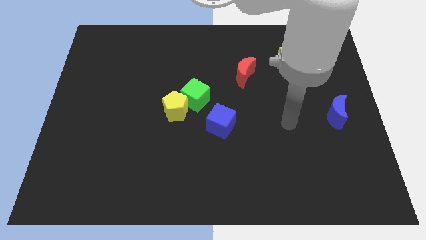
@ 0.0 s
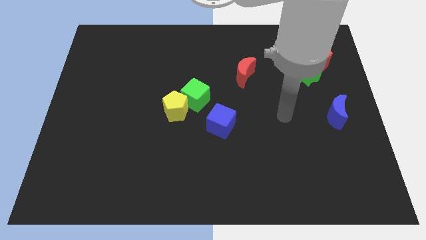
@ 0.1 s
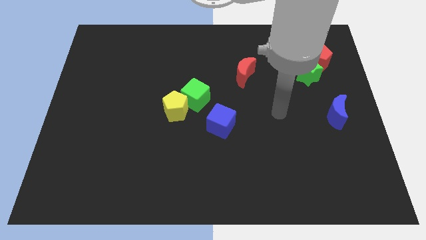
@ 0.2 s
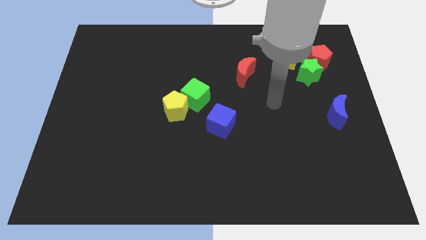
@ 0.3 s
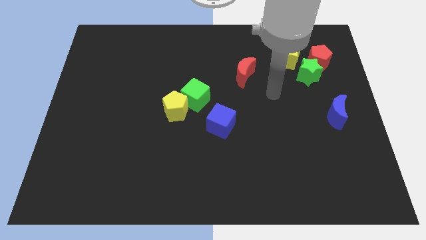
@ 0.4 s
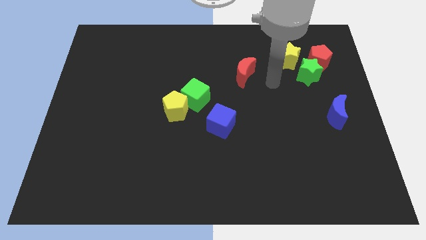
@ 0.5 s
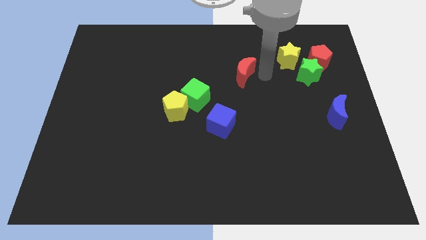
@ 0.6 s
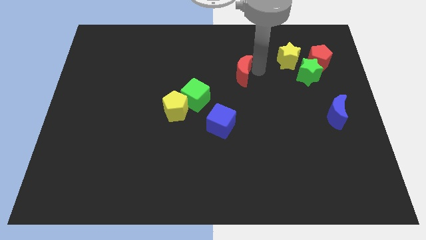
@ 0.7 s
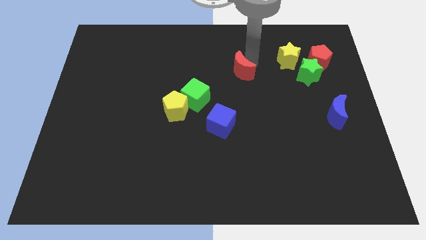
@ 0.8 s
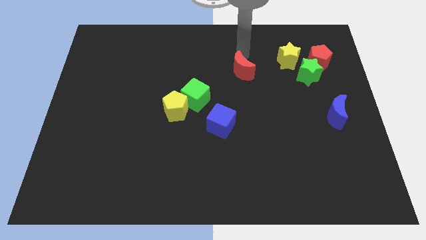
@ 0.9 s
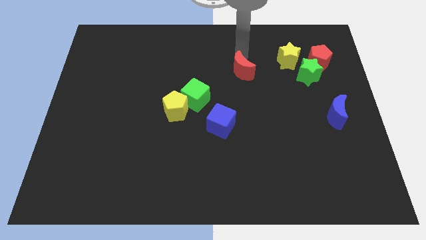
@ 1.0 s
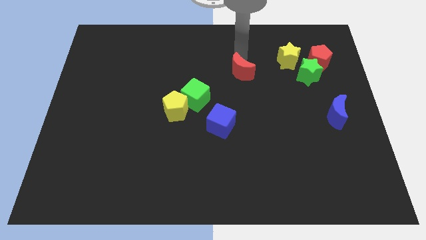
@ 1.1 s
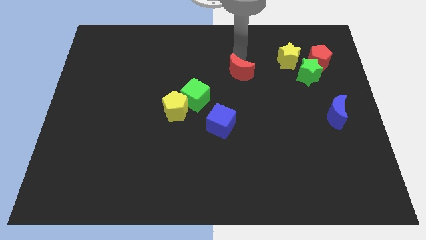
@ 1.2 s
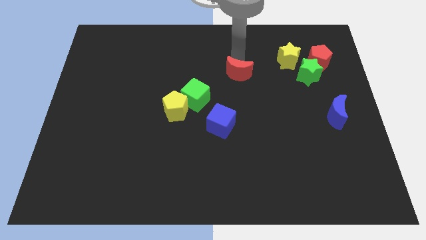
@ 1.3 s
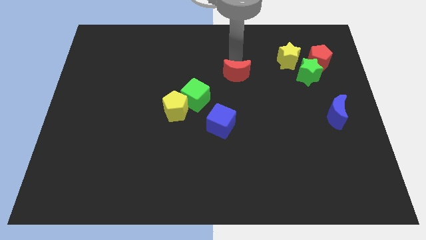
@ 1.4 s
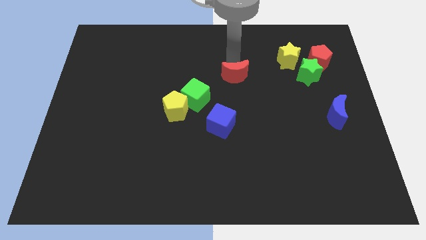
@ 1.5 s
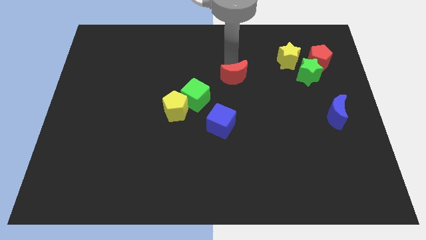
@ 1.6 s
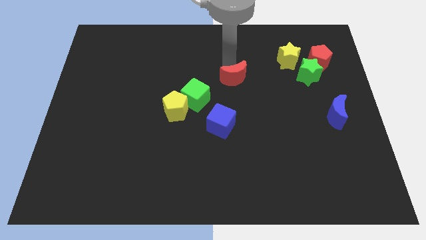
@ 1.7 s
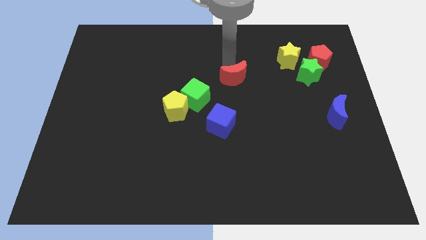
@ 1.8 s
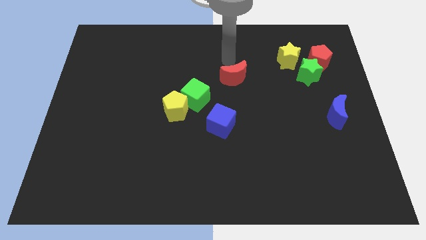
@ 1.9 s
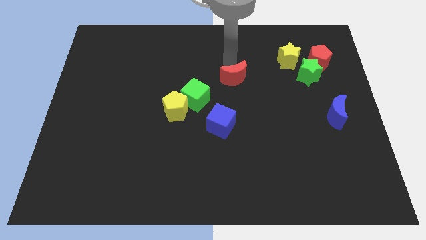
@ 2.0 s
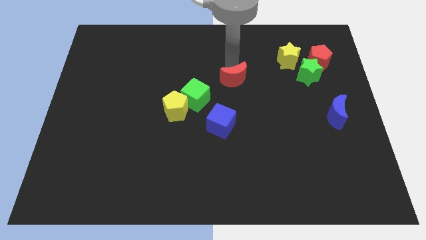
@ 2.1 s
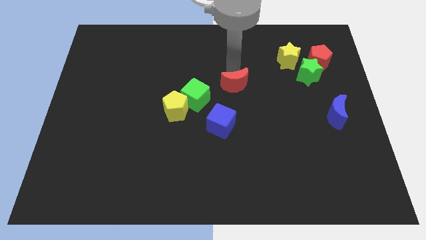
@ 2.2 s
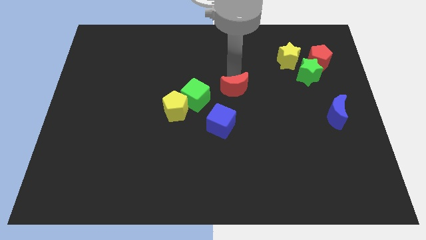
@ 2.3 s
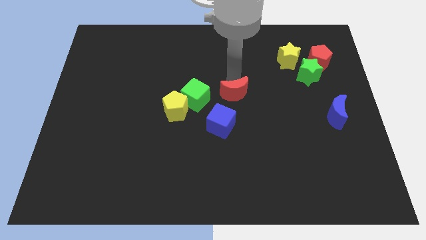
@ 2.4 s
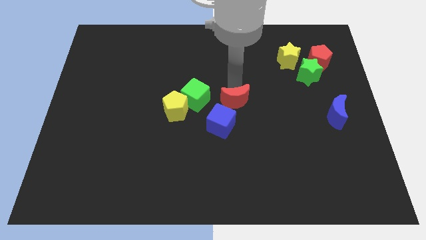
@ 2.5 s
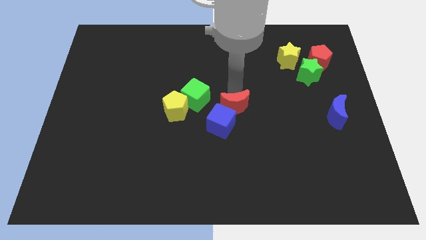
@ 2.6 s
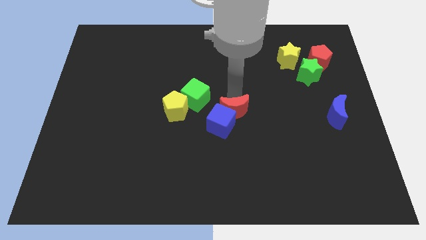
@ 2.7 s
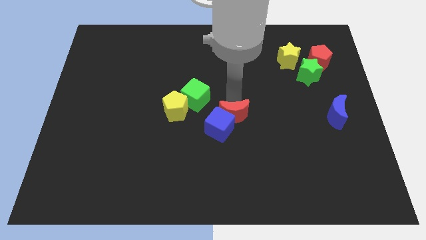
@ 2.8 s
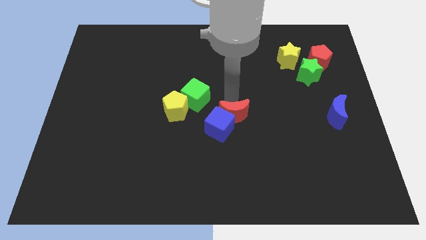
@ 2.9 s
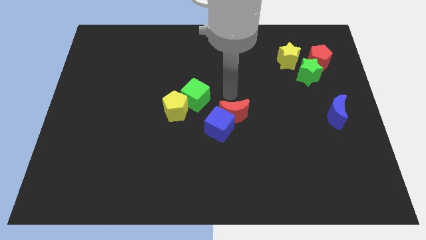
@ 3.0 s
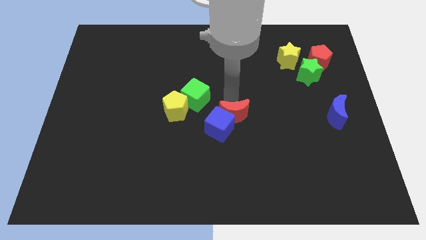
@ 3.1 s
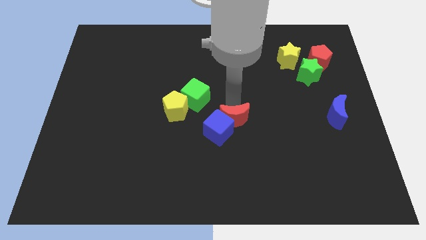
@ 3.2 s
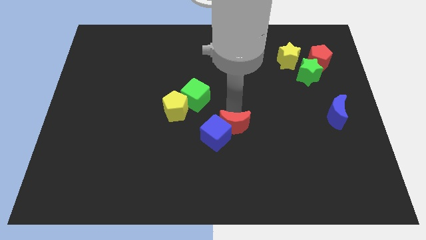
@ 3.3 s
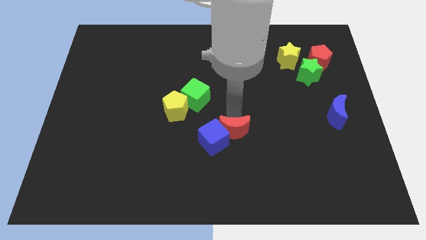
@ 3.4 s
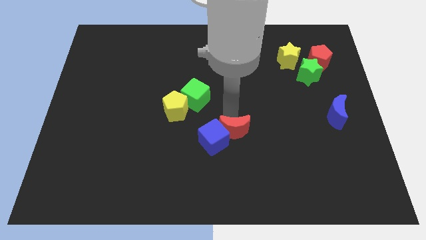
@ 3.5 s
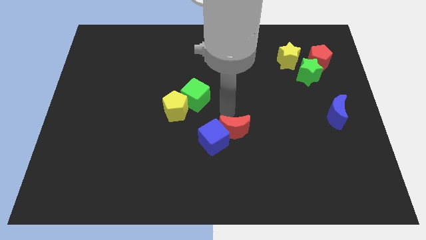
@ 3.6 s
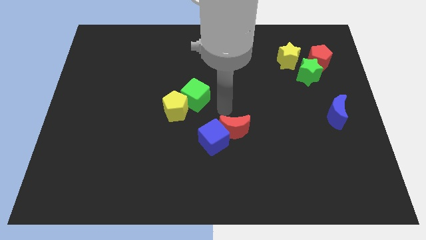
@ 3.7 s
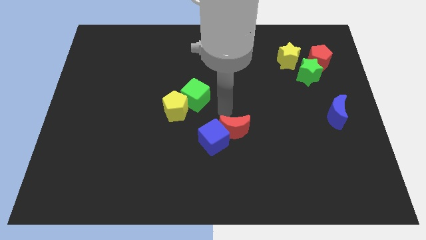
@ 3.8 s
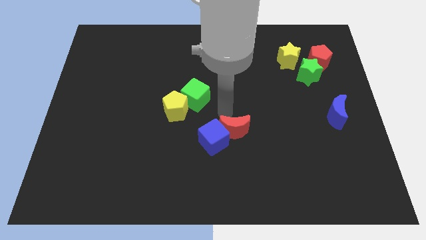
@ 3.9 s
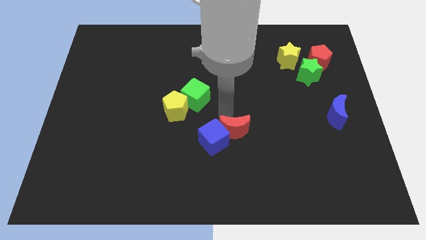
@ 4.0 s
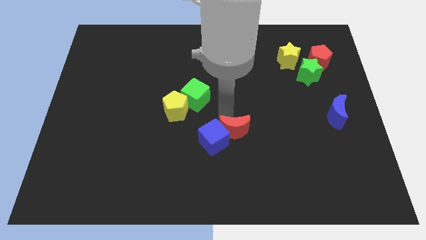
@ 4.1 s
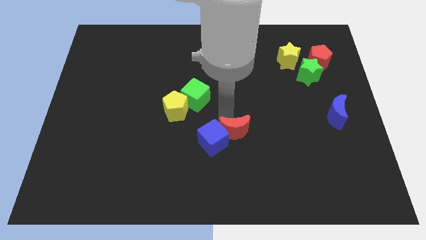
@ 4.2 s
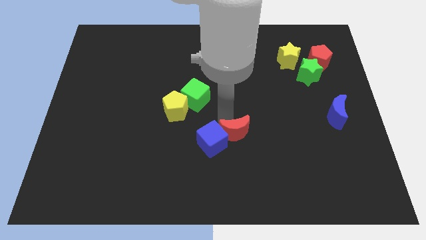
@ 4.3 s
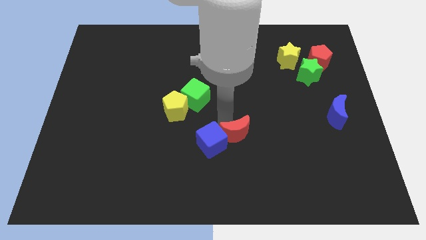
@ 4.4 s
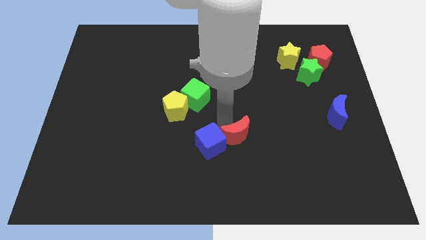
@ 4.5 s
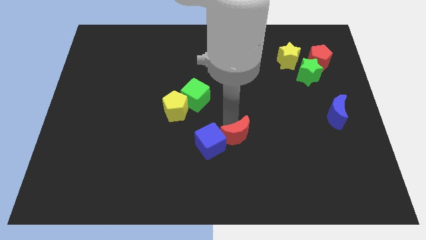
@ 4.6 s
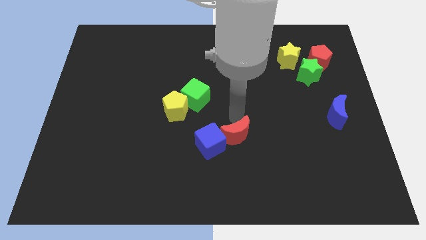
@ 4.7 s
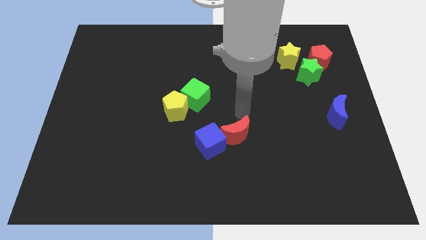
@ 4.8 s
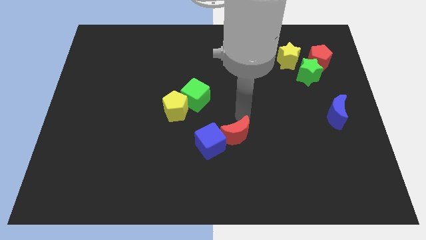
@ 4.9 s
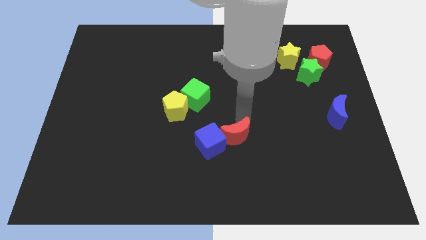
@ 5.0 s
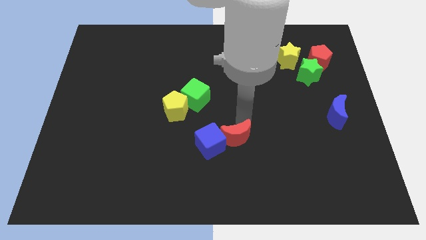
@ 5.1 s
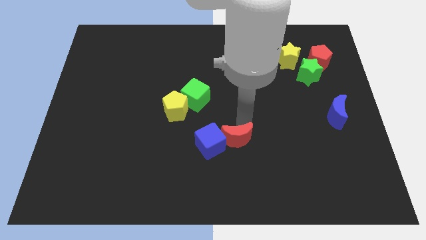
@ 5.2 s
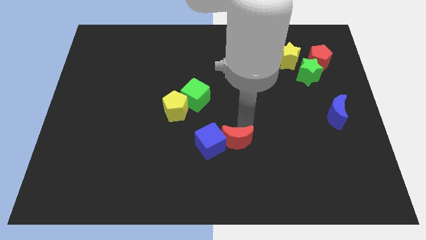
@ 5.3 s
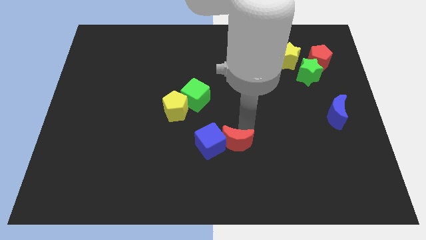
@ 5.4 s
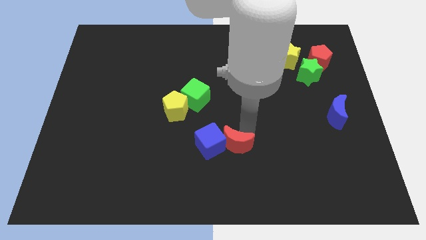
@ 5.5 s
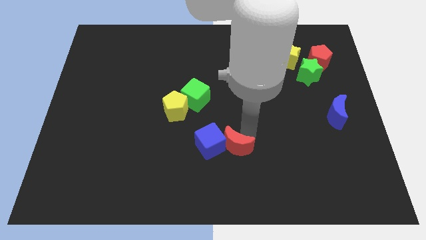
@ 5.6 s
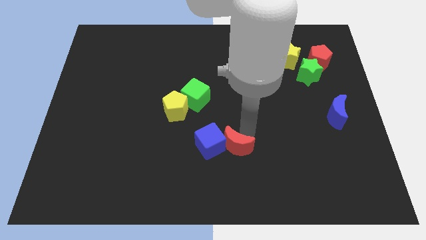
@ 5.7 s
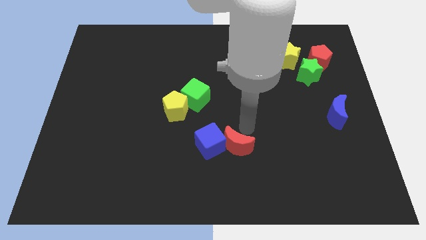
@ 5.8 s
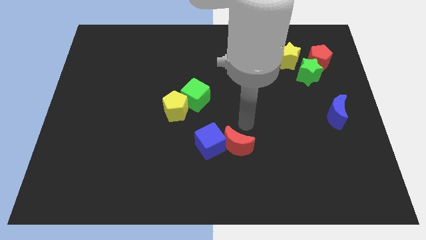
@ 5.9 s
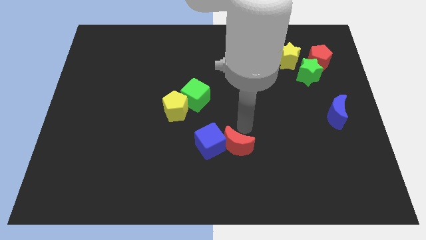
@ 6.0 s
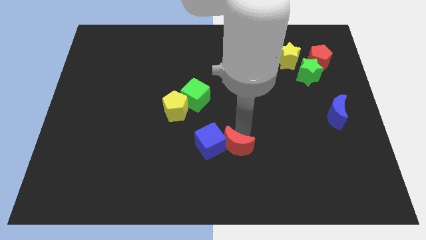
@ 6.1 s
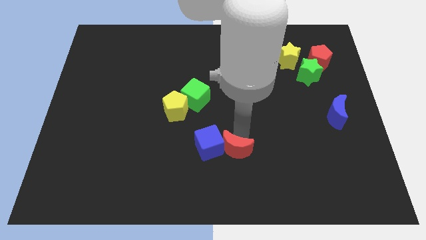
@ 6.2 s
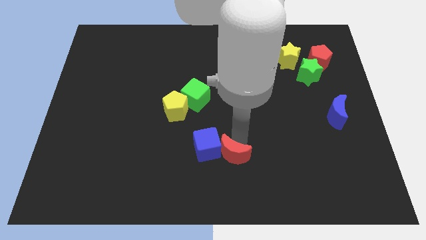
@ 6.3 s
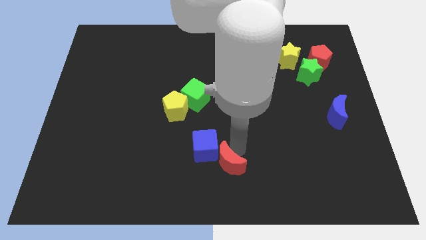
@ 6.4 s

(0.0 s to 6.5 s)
move the red moon to the bottom

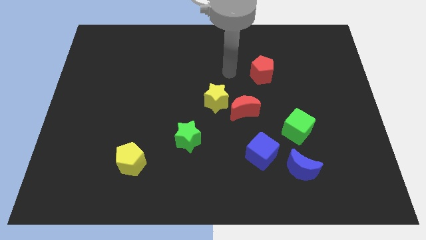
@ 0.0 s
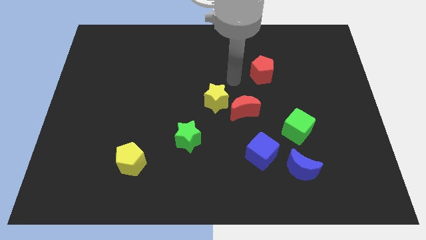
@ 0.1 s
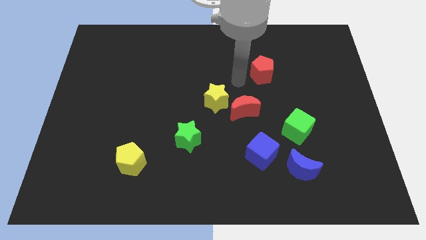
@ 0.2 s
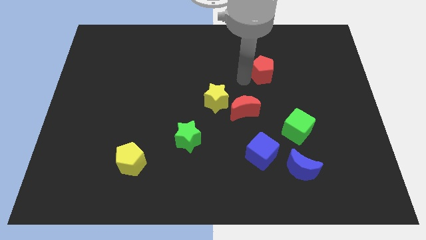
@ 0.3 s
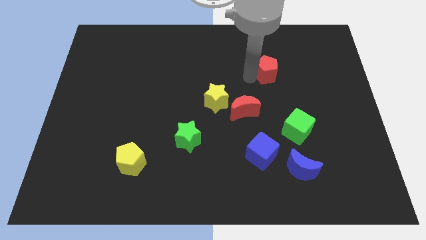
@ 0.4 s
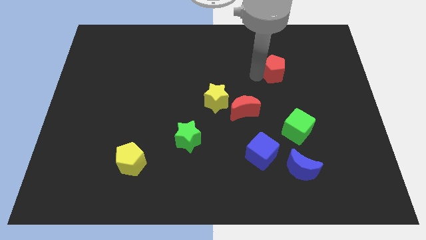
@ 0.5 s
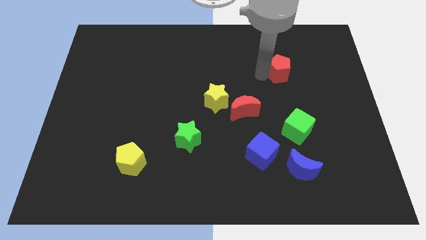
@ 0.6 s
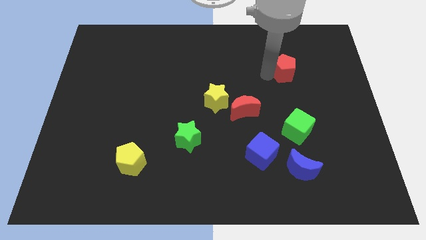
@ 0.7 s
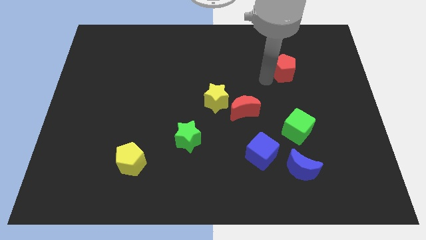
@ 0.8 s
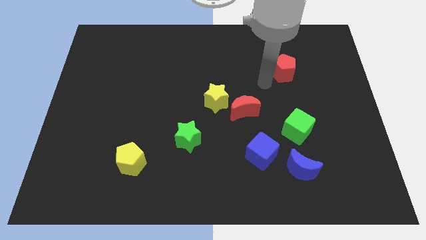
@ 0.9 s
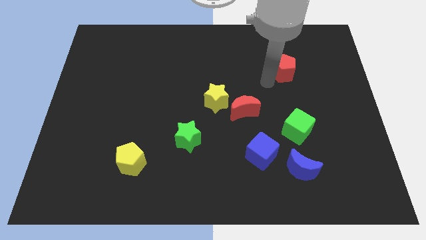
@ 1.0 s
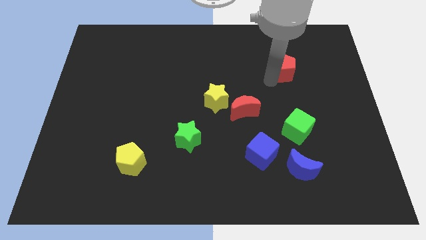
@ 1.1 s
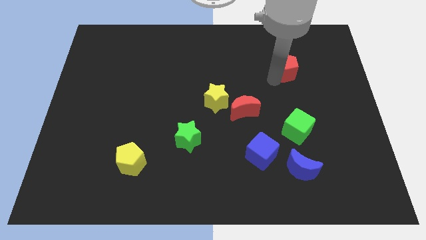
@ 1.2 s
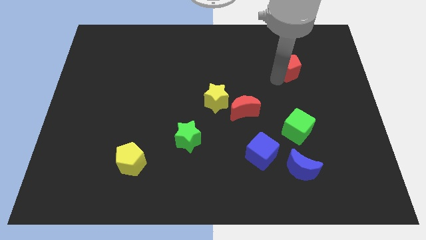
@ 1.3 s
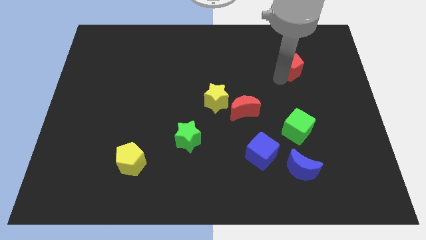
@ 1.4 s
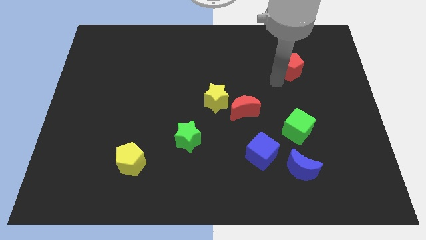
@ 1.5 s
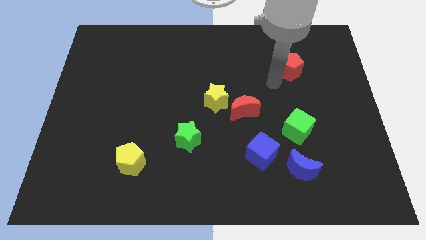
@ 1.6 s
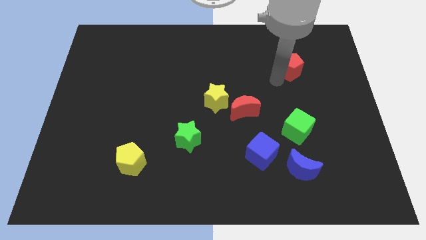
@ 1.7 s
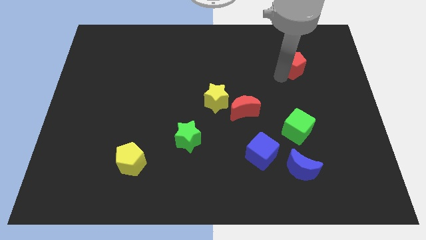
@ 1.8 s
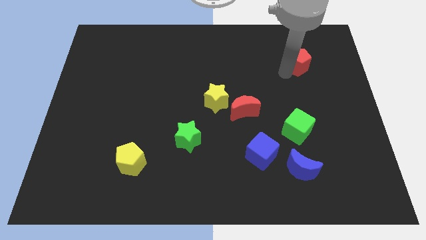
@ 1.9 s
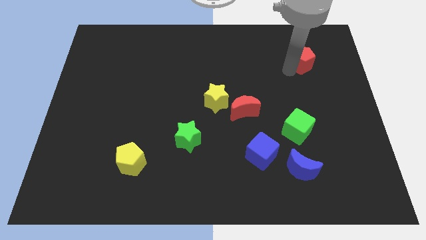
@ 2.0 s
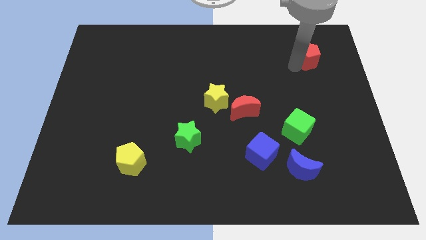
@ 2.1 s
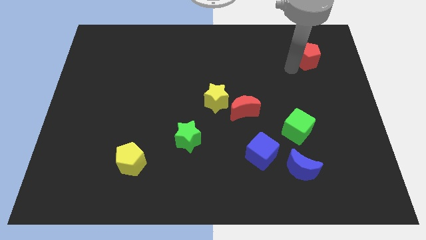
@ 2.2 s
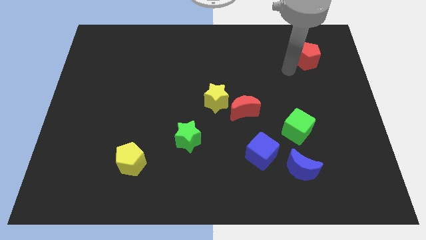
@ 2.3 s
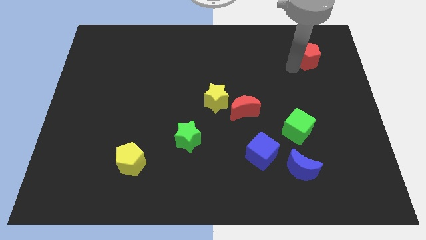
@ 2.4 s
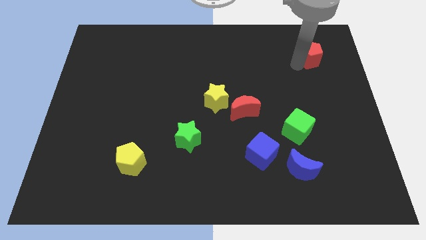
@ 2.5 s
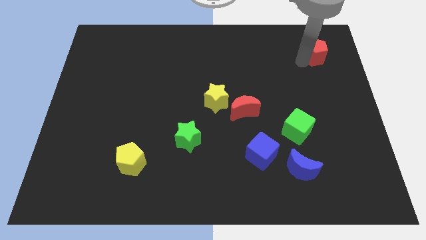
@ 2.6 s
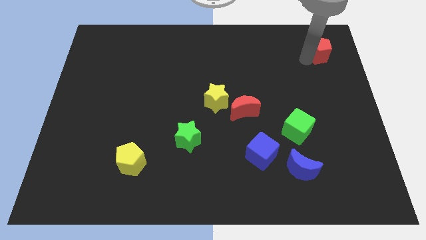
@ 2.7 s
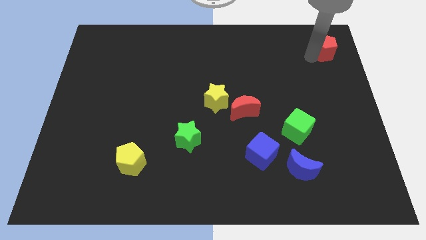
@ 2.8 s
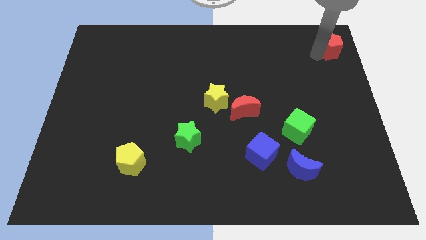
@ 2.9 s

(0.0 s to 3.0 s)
put the red pentagon to the upper right corner
